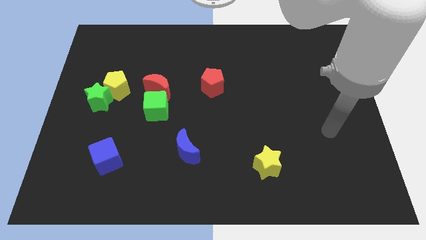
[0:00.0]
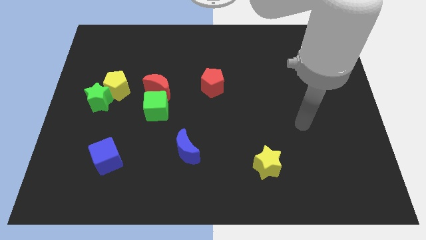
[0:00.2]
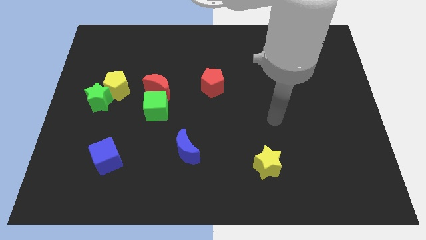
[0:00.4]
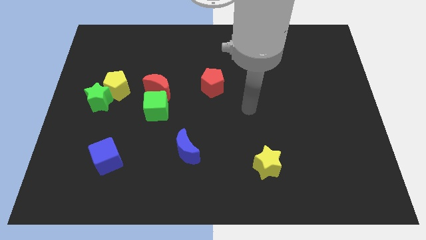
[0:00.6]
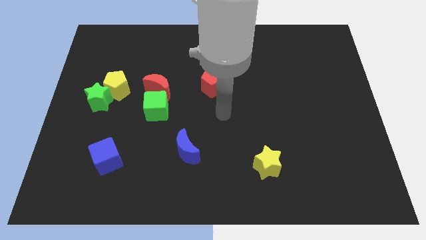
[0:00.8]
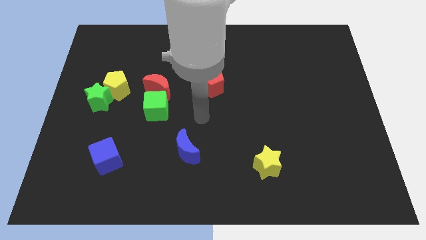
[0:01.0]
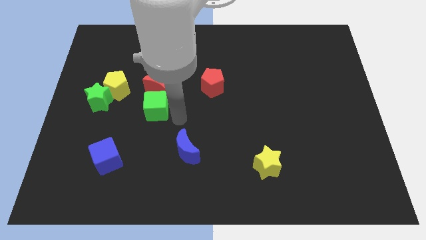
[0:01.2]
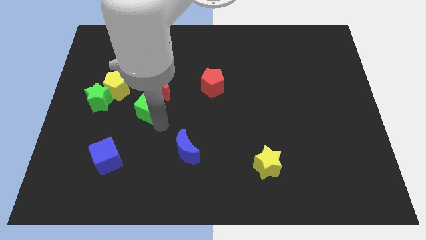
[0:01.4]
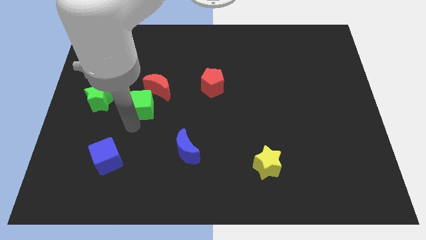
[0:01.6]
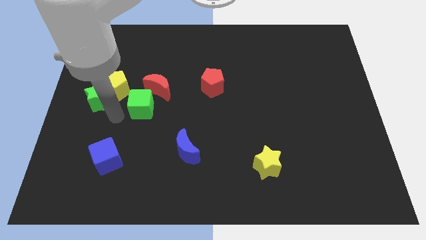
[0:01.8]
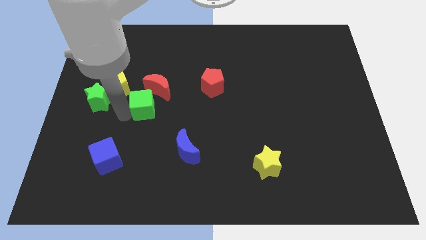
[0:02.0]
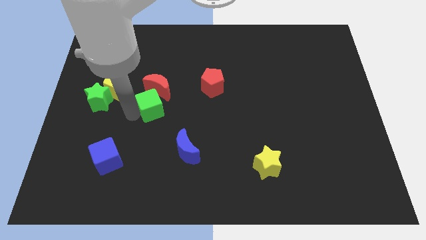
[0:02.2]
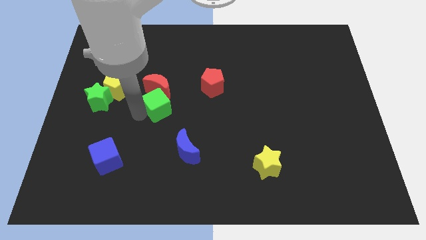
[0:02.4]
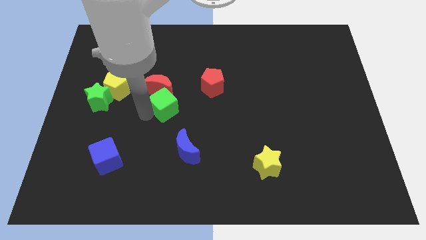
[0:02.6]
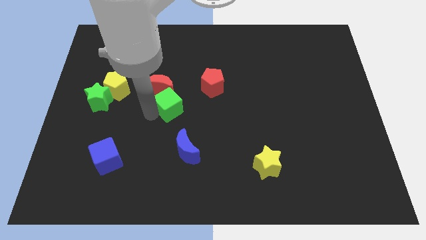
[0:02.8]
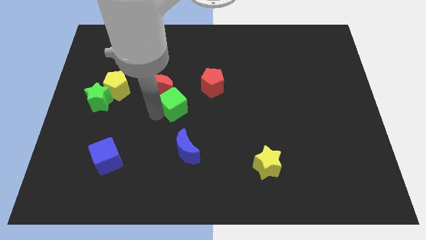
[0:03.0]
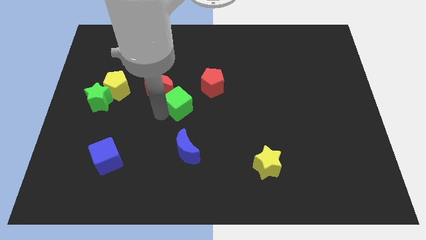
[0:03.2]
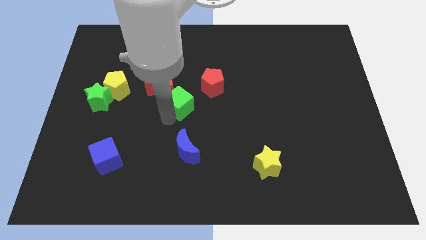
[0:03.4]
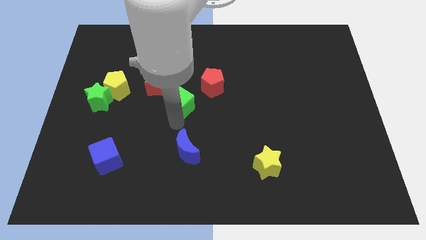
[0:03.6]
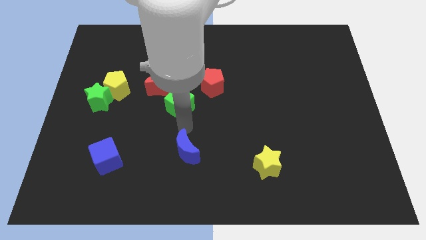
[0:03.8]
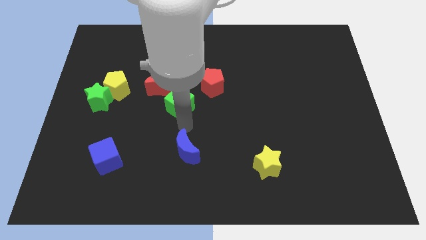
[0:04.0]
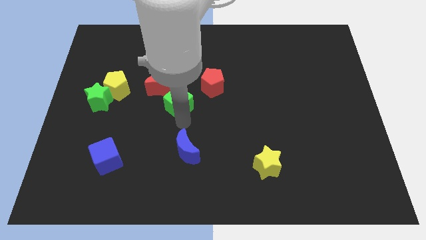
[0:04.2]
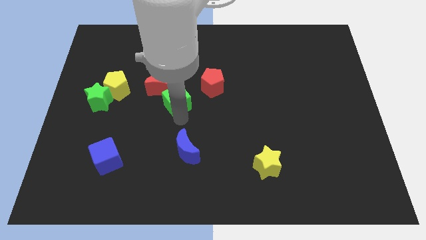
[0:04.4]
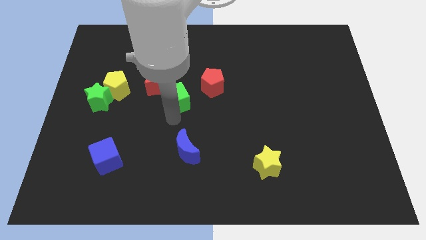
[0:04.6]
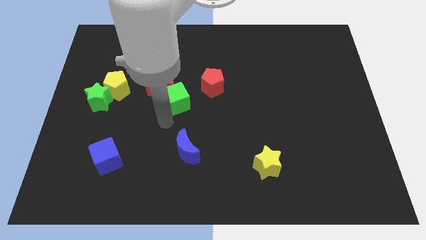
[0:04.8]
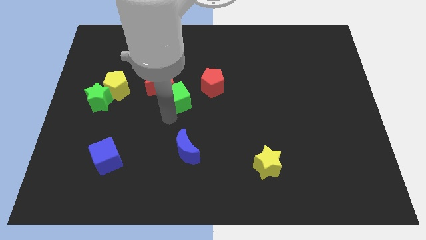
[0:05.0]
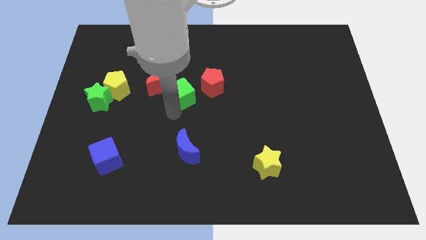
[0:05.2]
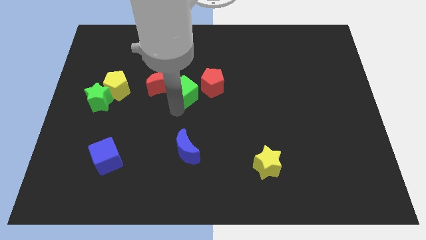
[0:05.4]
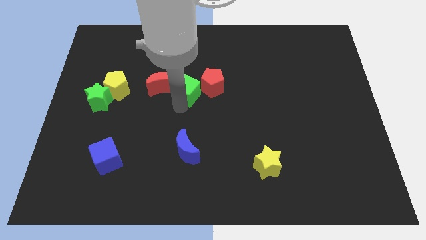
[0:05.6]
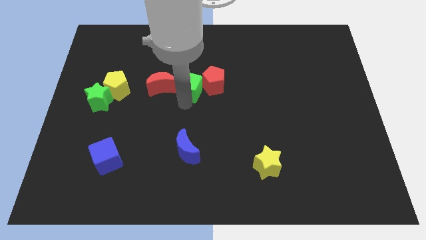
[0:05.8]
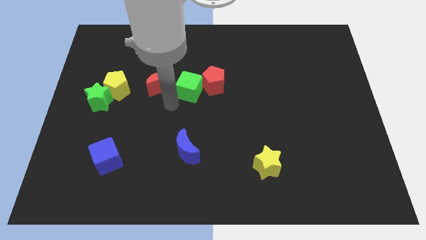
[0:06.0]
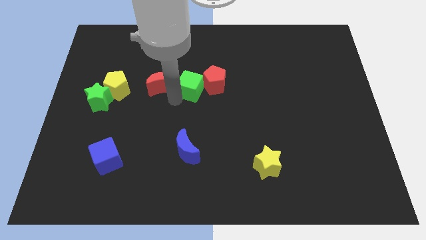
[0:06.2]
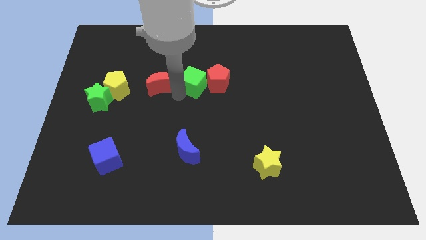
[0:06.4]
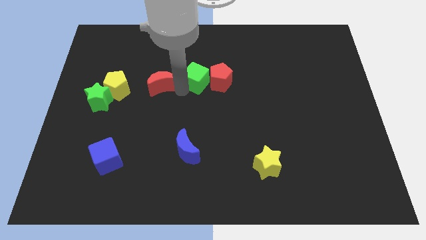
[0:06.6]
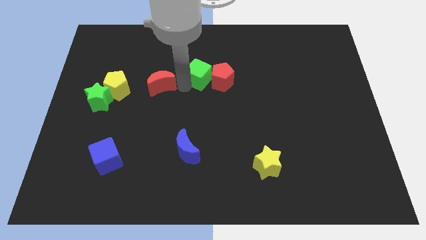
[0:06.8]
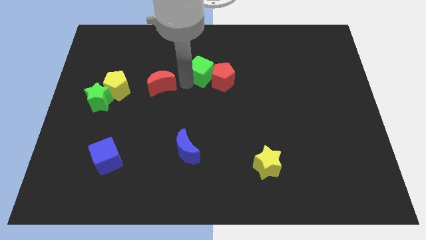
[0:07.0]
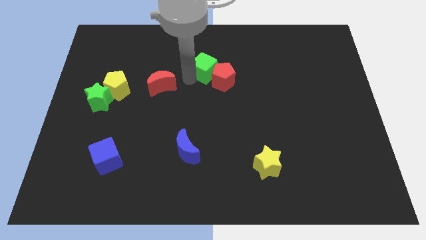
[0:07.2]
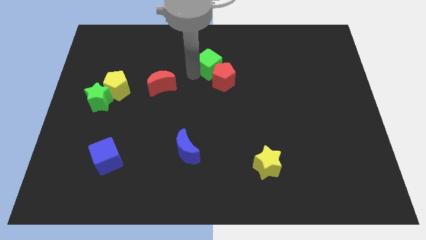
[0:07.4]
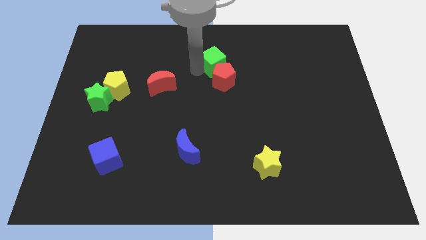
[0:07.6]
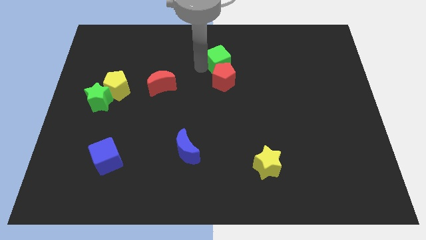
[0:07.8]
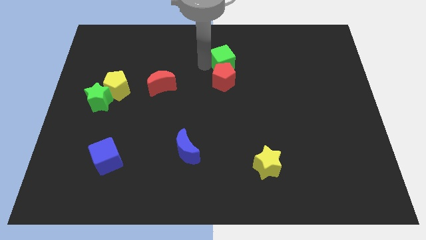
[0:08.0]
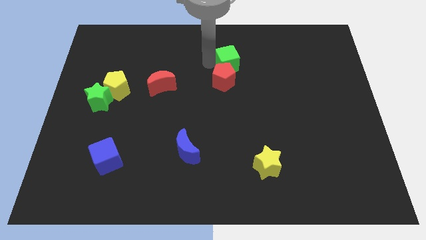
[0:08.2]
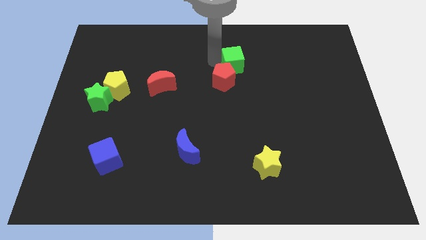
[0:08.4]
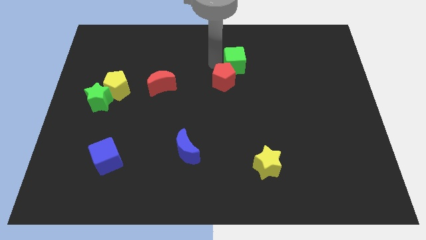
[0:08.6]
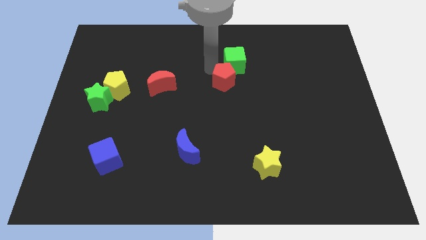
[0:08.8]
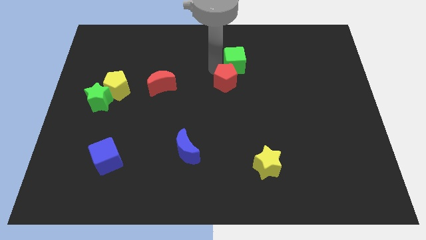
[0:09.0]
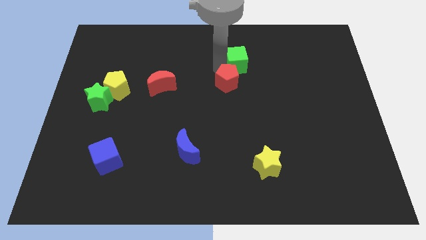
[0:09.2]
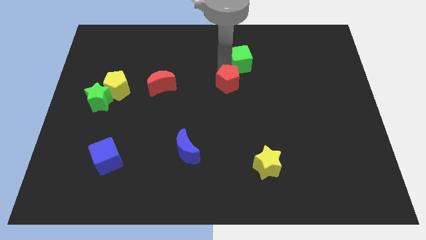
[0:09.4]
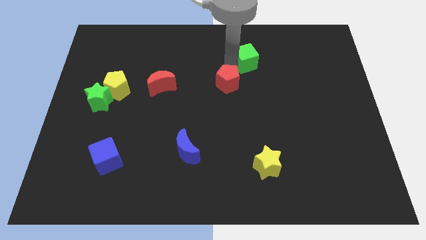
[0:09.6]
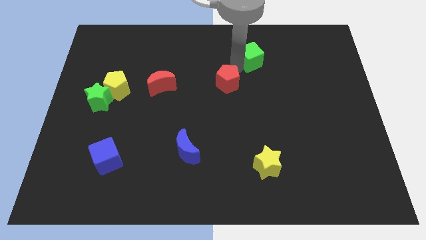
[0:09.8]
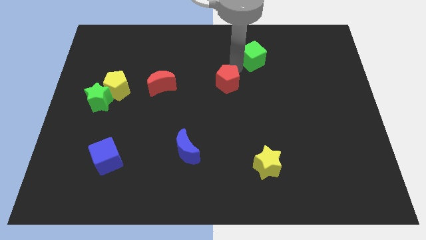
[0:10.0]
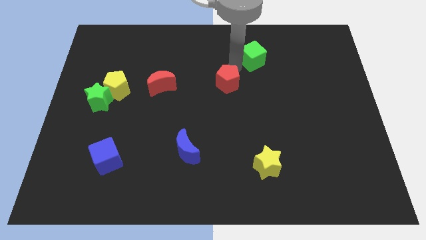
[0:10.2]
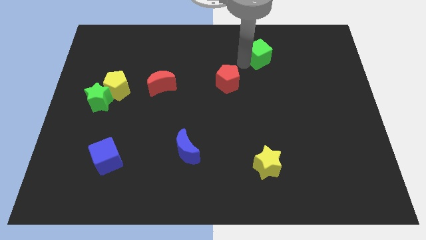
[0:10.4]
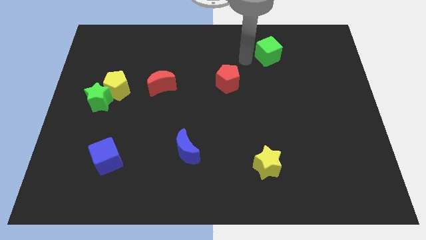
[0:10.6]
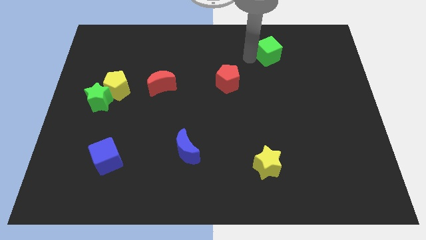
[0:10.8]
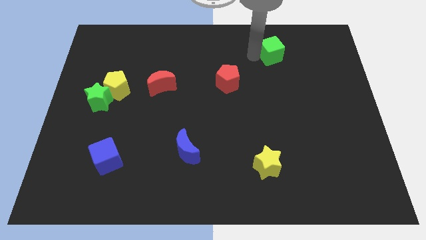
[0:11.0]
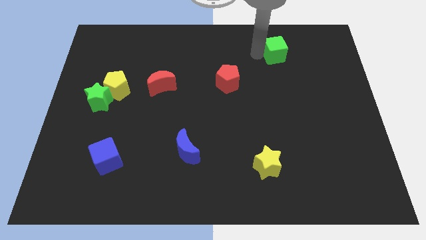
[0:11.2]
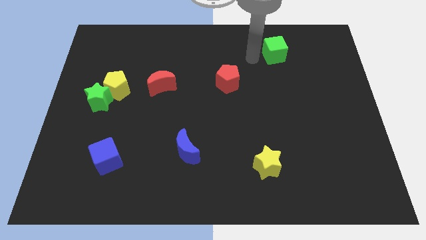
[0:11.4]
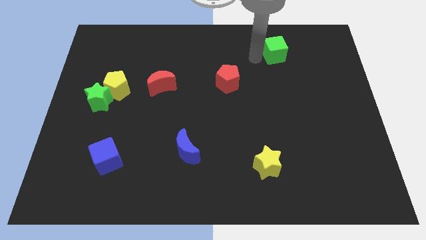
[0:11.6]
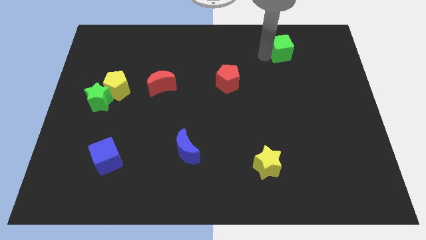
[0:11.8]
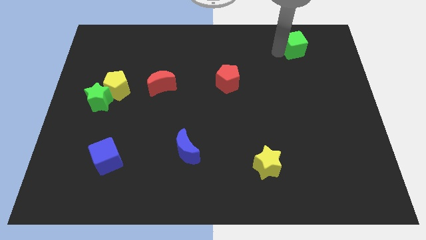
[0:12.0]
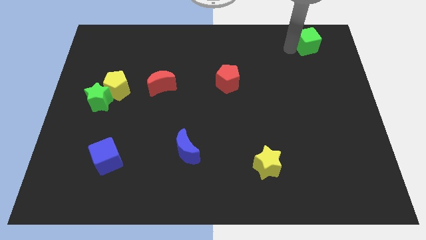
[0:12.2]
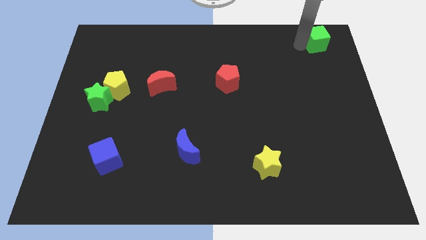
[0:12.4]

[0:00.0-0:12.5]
put the green cube to the top right of the board
